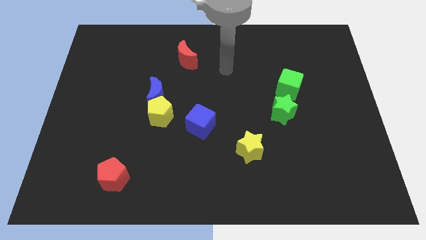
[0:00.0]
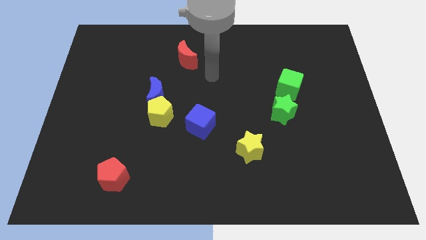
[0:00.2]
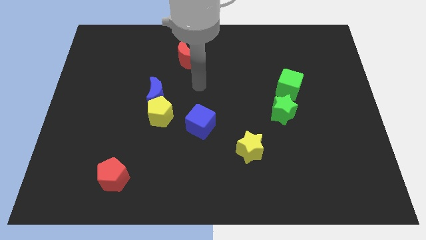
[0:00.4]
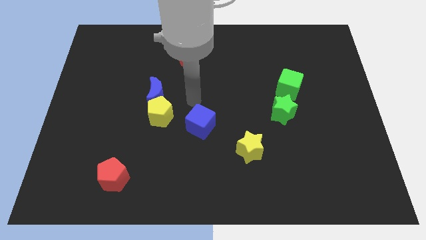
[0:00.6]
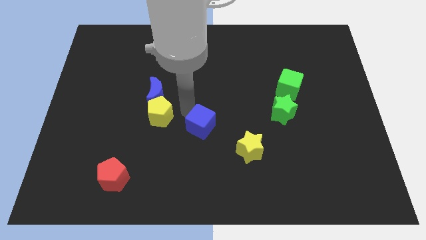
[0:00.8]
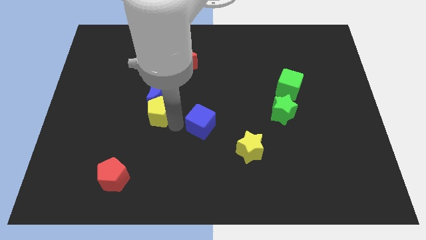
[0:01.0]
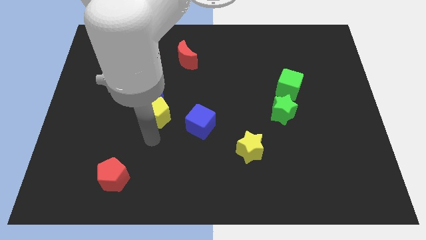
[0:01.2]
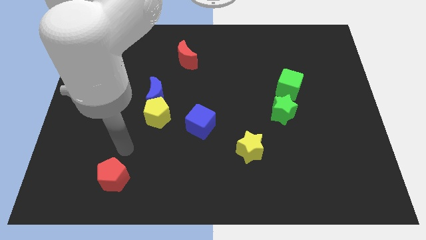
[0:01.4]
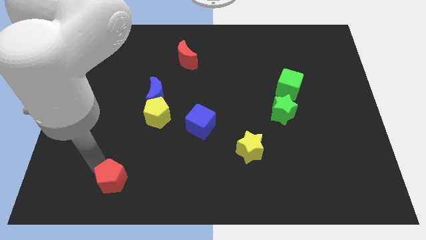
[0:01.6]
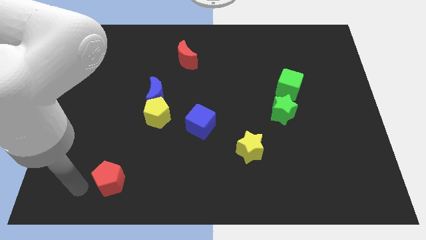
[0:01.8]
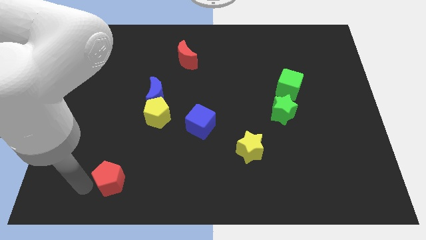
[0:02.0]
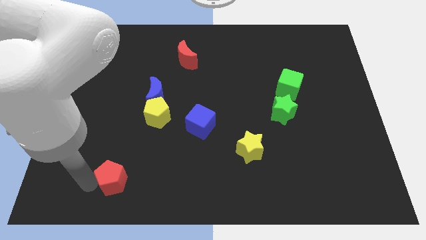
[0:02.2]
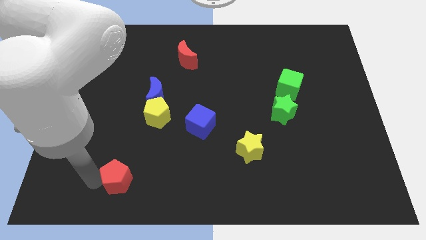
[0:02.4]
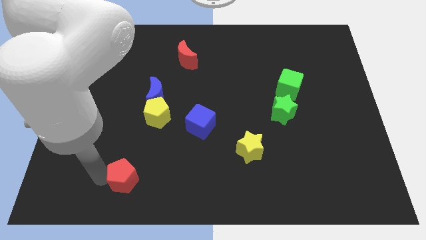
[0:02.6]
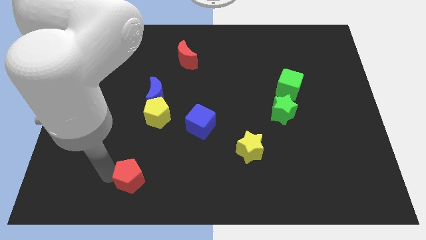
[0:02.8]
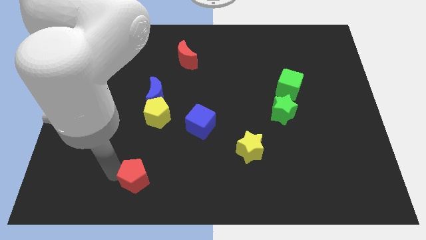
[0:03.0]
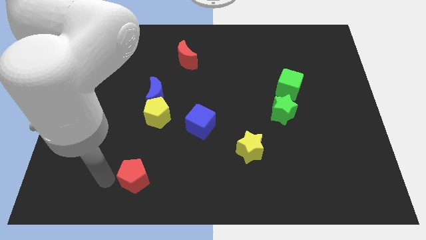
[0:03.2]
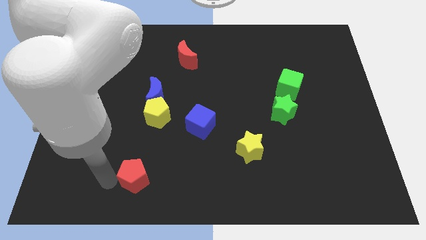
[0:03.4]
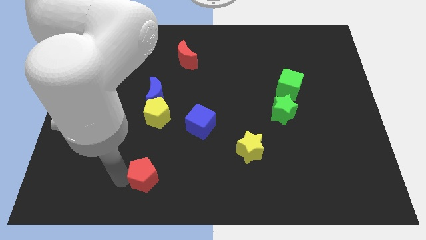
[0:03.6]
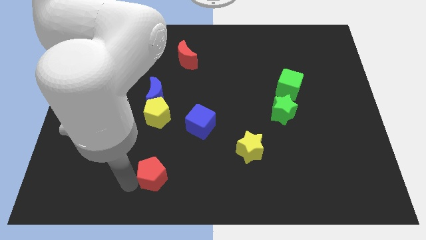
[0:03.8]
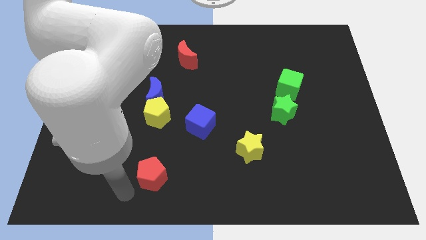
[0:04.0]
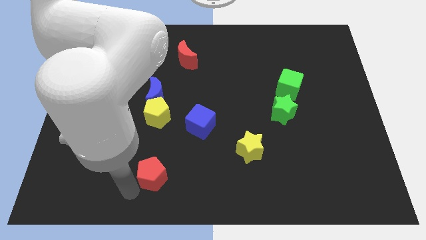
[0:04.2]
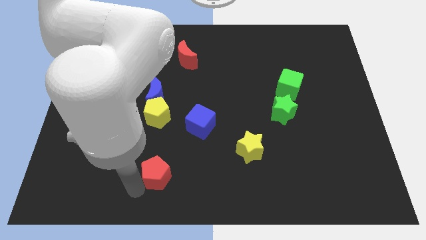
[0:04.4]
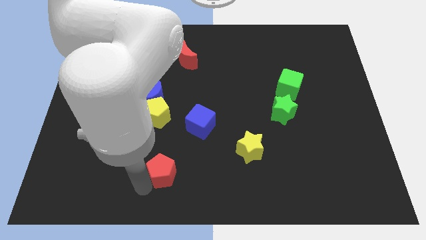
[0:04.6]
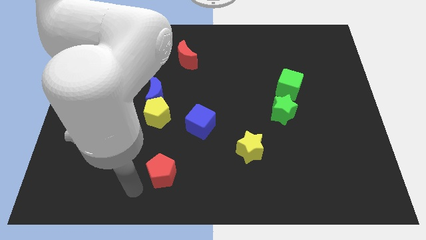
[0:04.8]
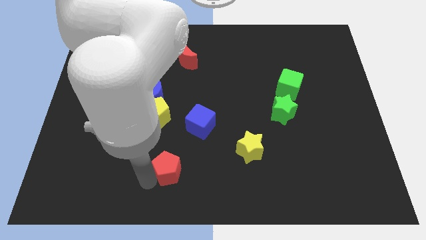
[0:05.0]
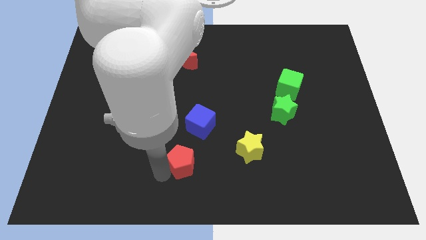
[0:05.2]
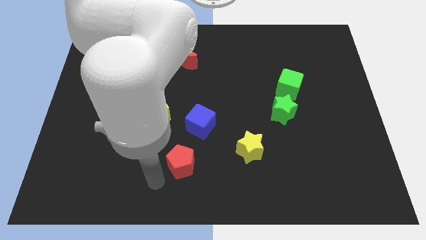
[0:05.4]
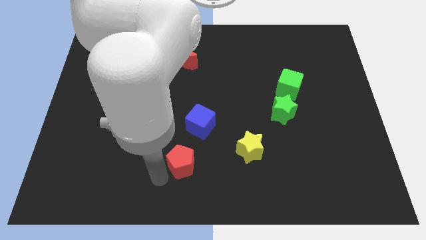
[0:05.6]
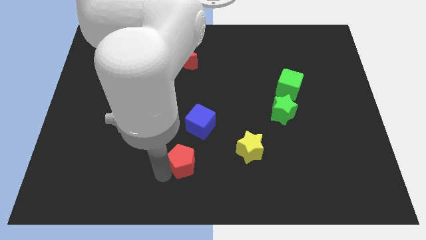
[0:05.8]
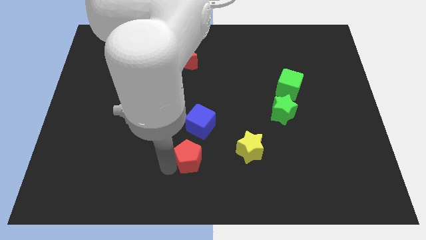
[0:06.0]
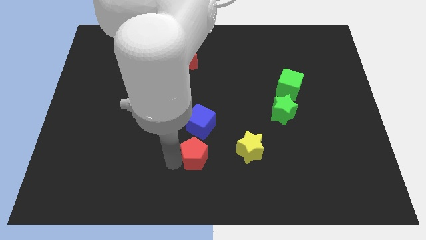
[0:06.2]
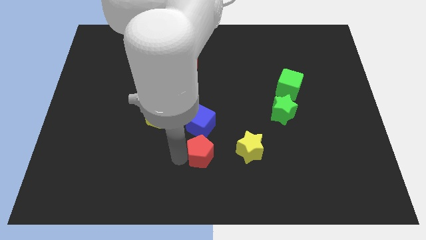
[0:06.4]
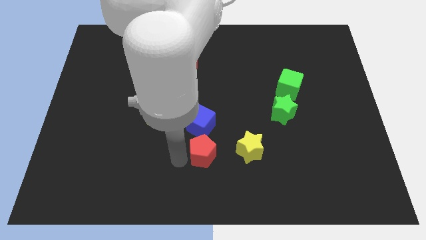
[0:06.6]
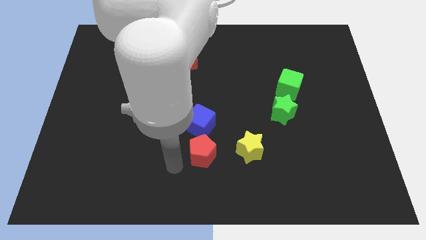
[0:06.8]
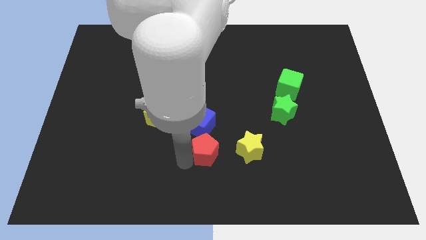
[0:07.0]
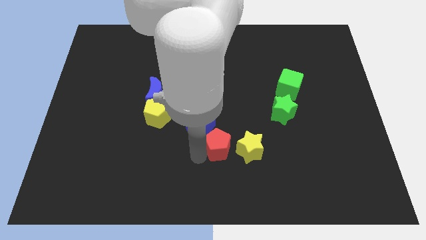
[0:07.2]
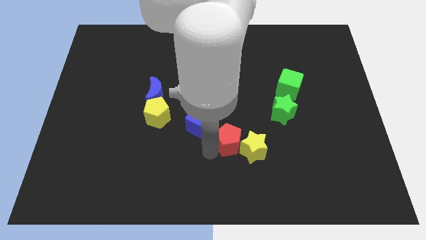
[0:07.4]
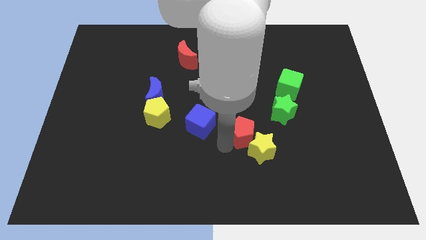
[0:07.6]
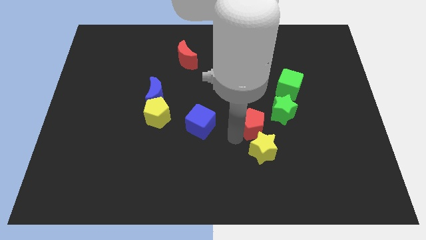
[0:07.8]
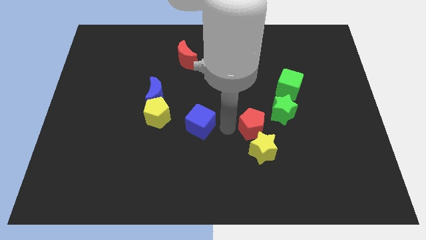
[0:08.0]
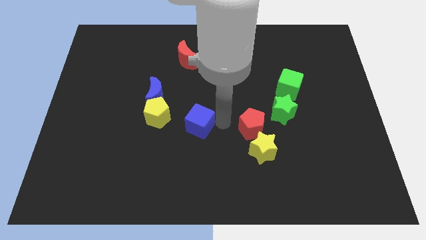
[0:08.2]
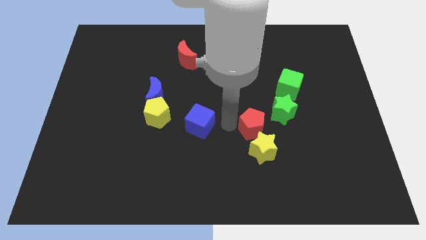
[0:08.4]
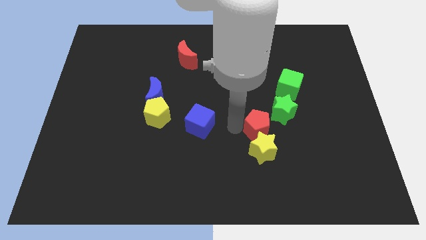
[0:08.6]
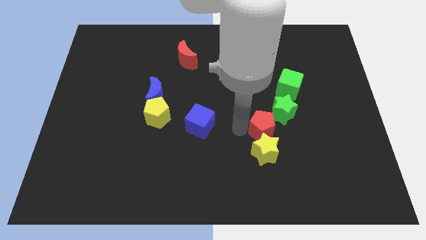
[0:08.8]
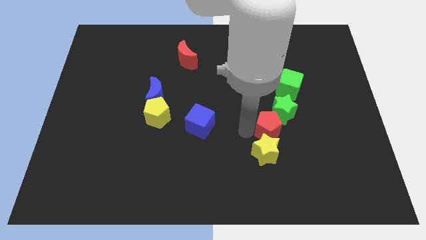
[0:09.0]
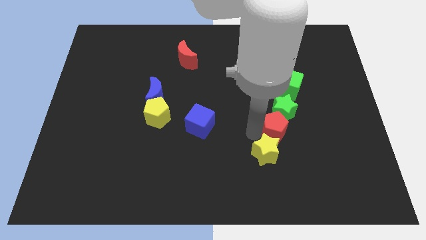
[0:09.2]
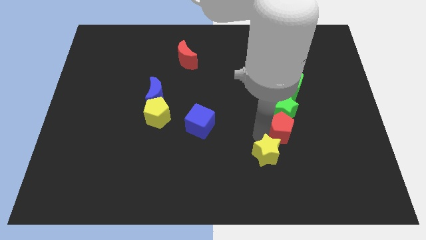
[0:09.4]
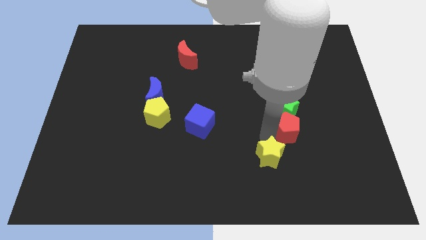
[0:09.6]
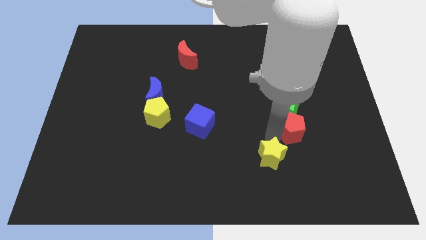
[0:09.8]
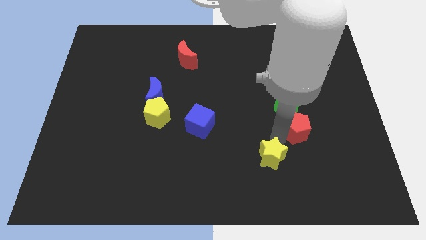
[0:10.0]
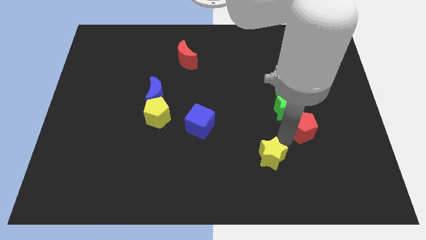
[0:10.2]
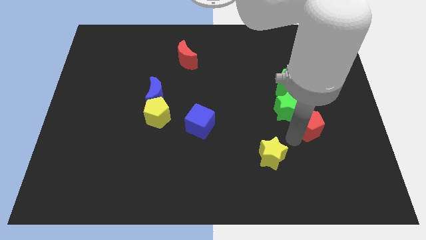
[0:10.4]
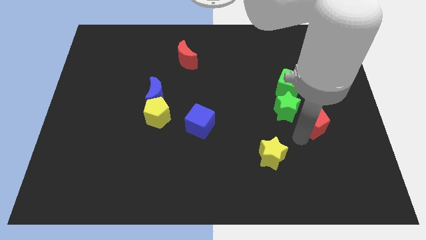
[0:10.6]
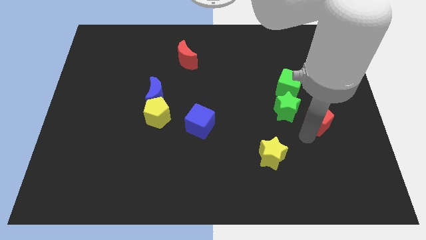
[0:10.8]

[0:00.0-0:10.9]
move the red pentagon to the bottom right side of the green cube

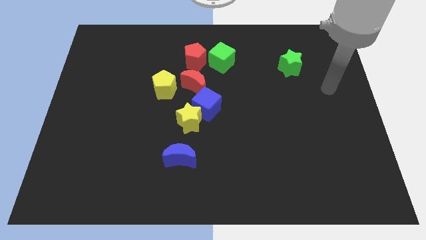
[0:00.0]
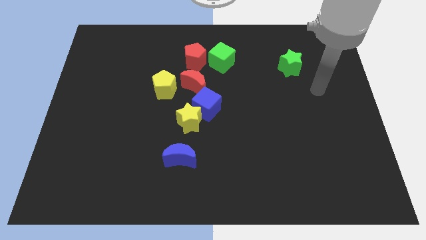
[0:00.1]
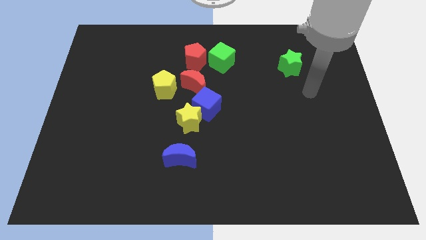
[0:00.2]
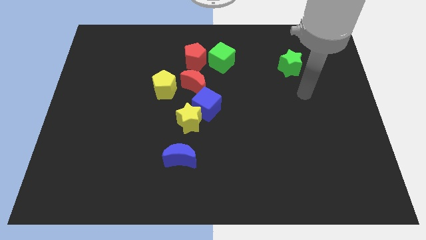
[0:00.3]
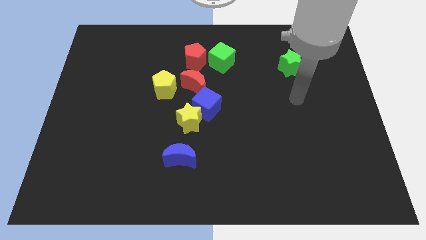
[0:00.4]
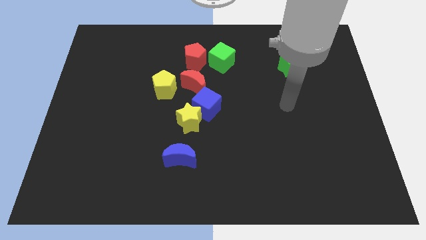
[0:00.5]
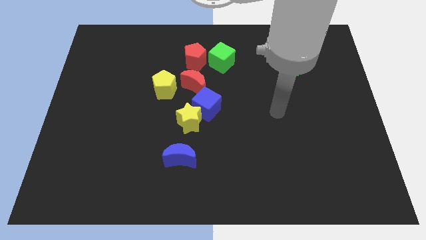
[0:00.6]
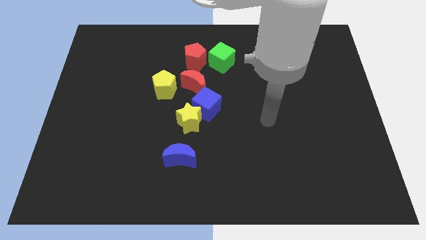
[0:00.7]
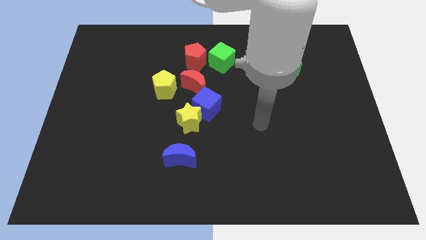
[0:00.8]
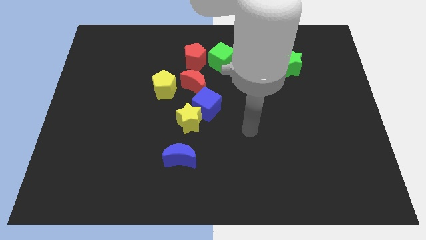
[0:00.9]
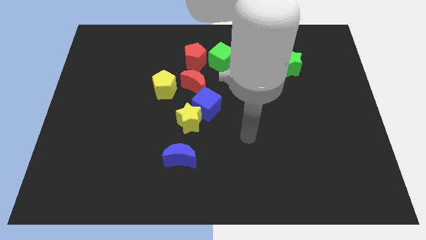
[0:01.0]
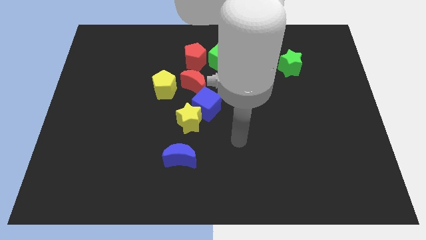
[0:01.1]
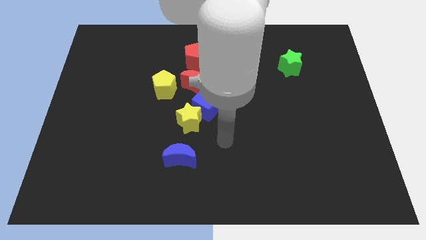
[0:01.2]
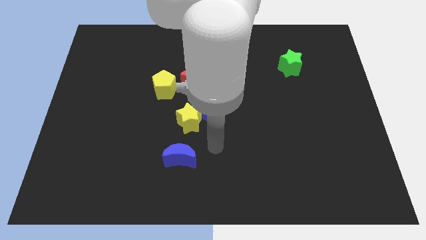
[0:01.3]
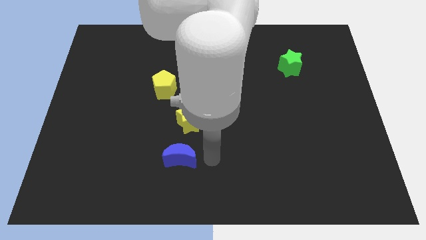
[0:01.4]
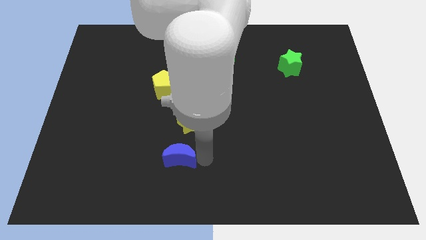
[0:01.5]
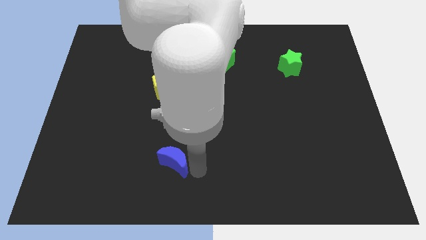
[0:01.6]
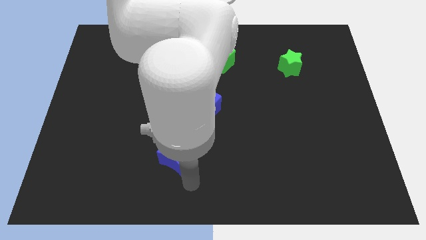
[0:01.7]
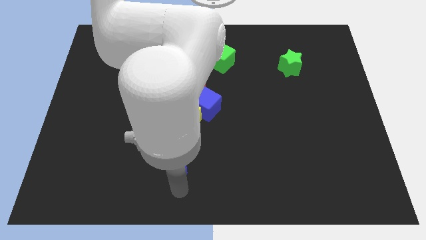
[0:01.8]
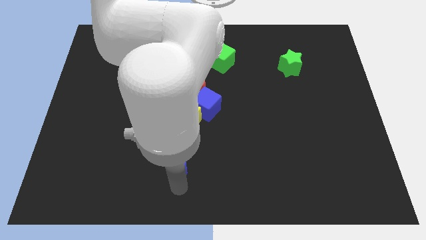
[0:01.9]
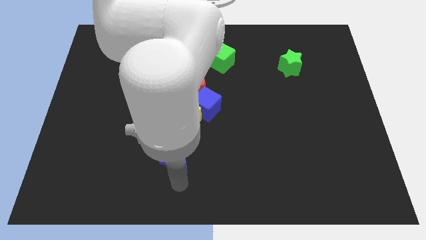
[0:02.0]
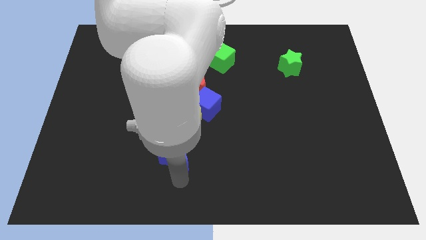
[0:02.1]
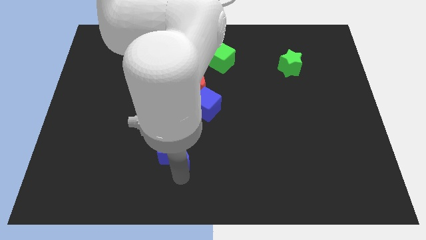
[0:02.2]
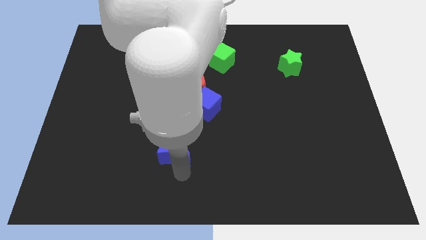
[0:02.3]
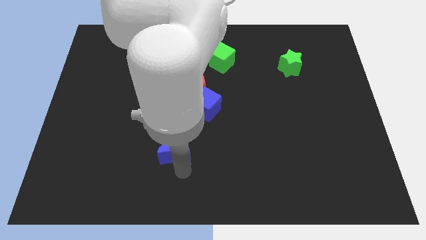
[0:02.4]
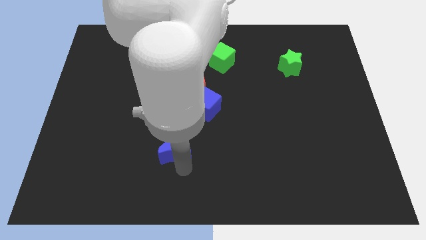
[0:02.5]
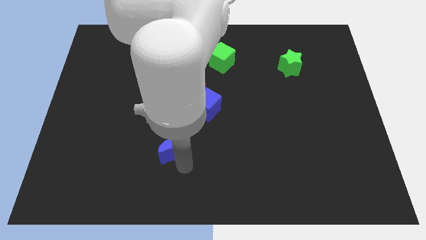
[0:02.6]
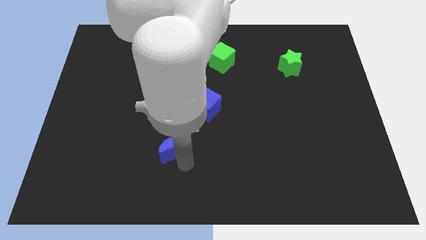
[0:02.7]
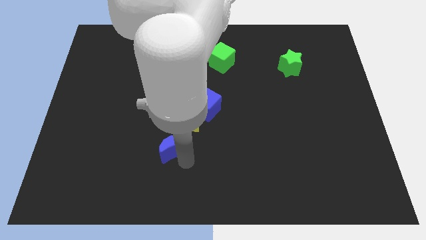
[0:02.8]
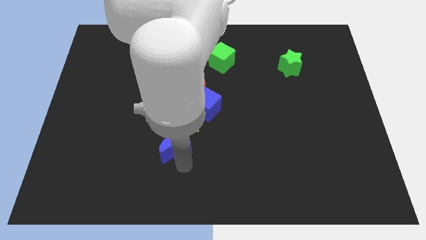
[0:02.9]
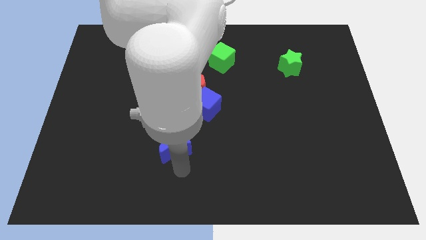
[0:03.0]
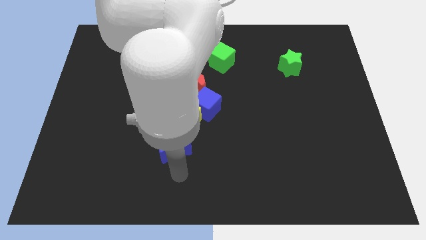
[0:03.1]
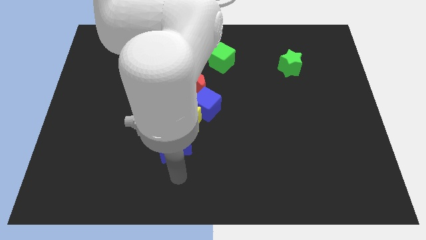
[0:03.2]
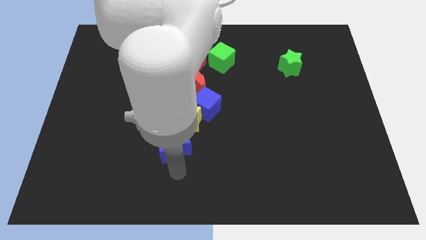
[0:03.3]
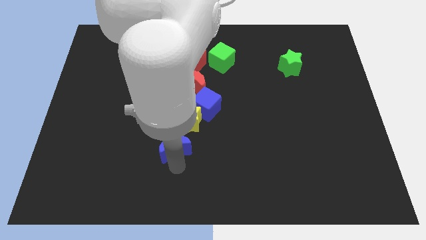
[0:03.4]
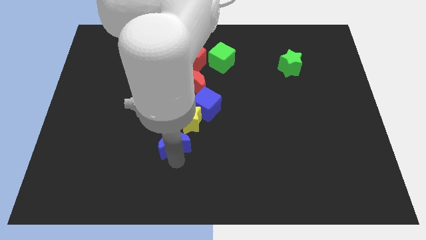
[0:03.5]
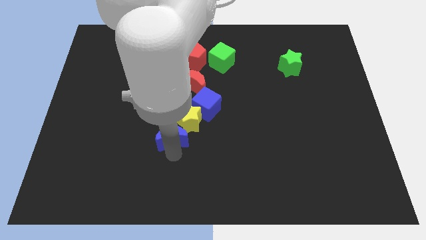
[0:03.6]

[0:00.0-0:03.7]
push the blue moon diagonally down and to the left of the blue cube
